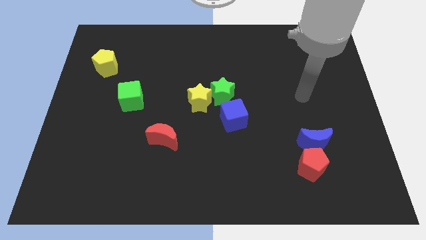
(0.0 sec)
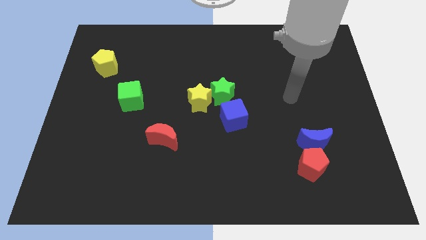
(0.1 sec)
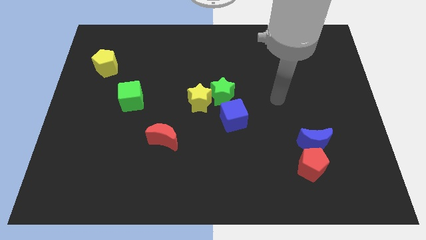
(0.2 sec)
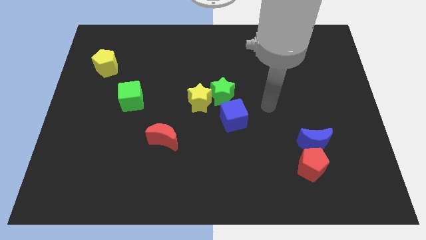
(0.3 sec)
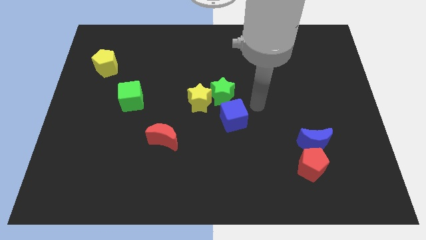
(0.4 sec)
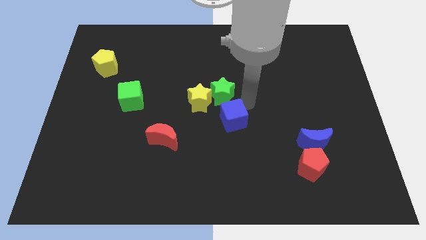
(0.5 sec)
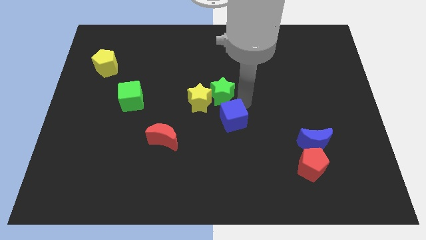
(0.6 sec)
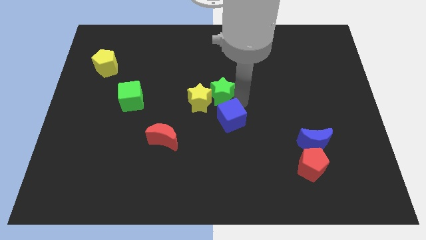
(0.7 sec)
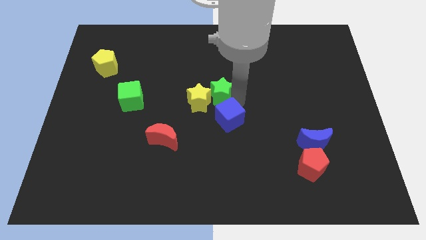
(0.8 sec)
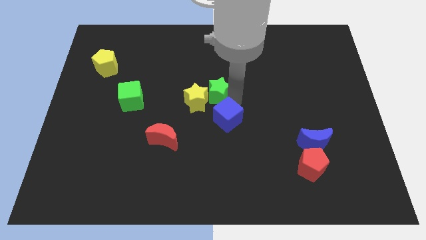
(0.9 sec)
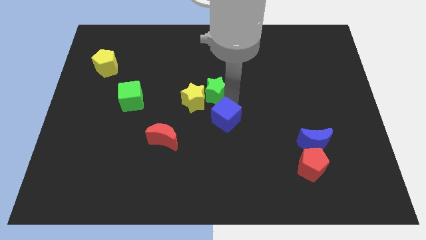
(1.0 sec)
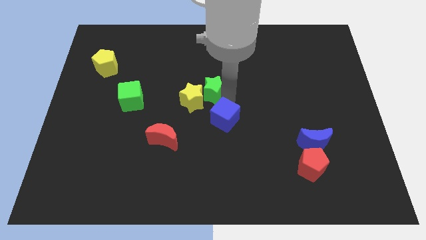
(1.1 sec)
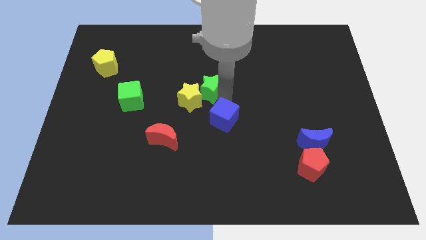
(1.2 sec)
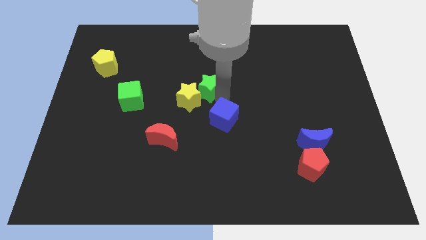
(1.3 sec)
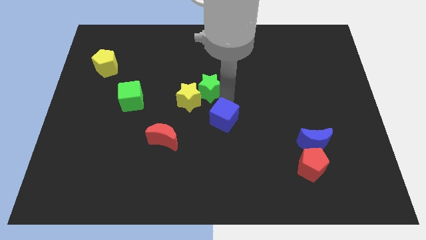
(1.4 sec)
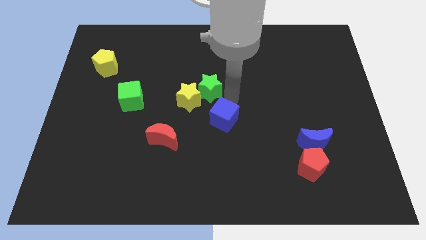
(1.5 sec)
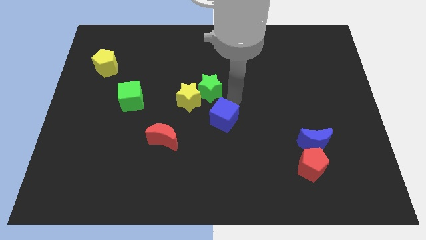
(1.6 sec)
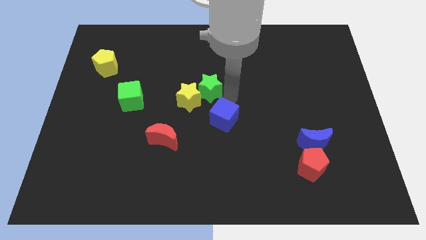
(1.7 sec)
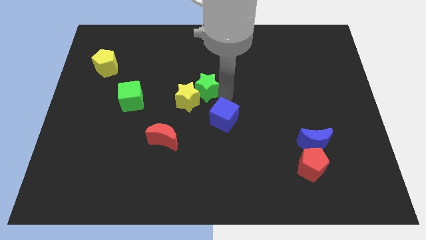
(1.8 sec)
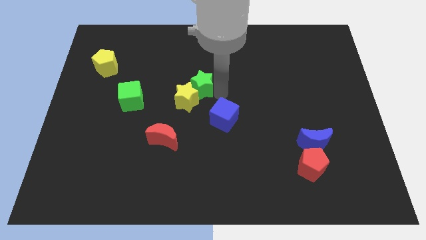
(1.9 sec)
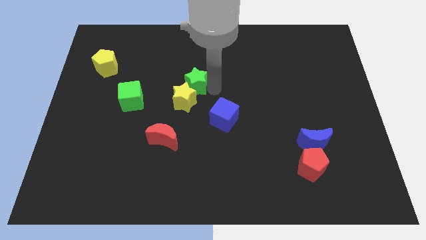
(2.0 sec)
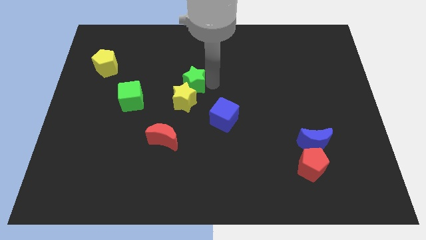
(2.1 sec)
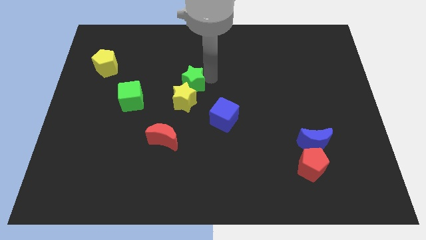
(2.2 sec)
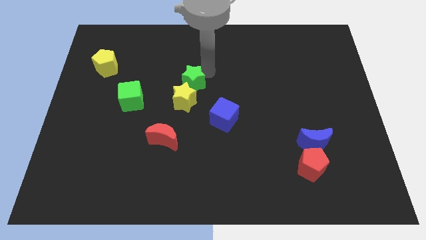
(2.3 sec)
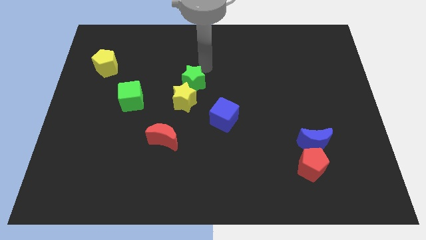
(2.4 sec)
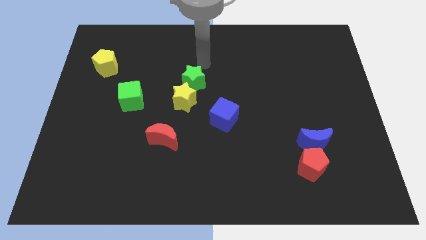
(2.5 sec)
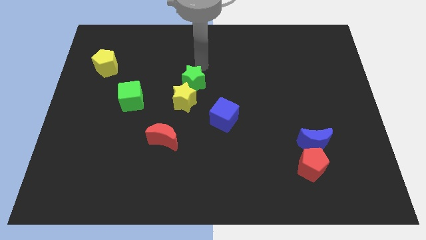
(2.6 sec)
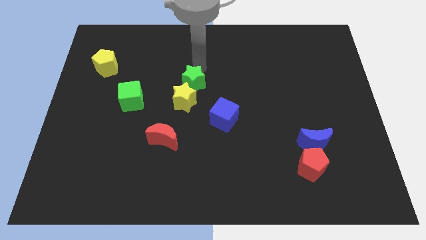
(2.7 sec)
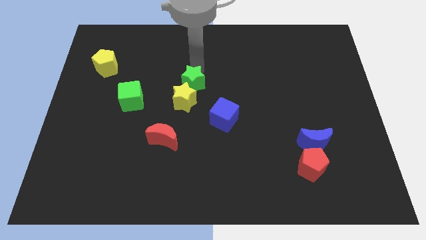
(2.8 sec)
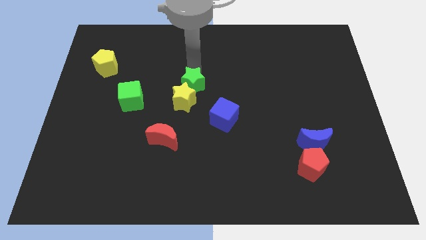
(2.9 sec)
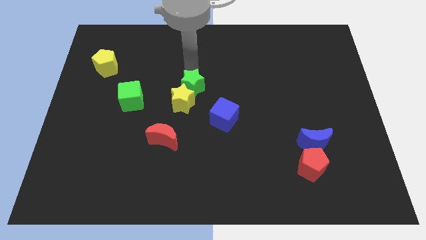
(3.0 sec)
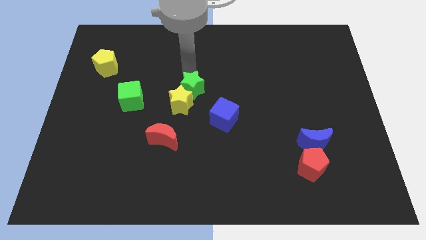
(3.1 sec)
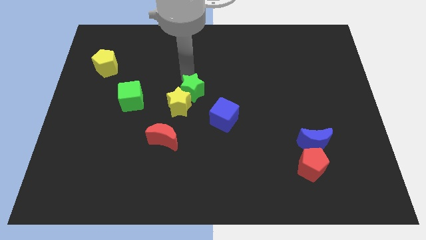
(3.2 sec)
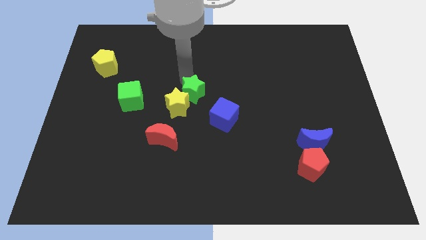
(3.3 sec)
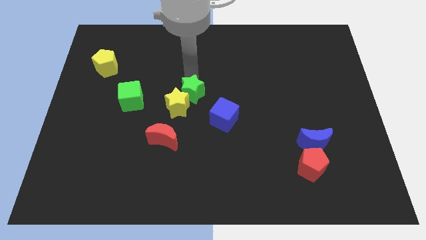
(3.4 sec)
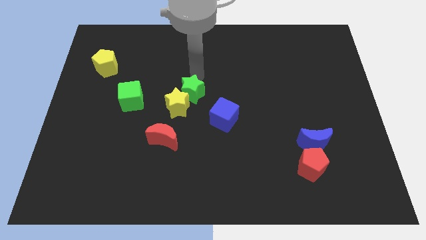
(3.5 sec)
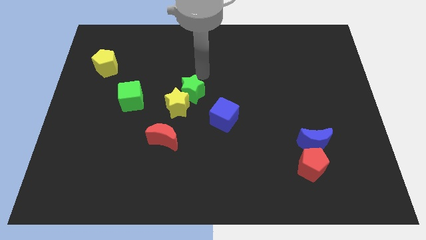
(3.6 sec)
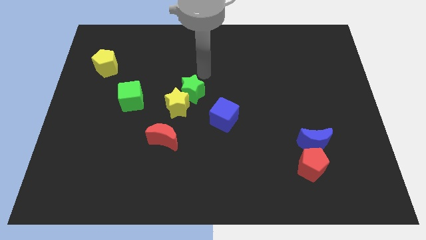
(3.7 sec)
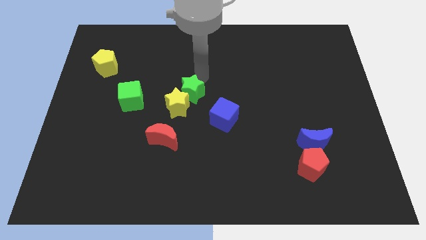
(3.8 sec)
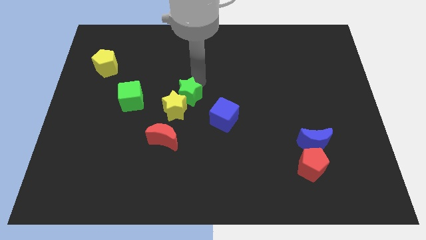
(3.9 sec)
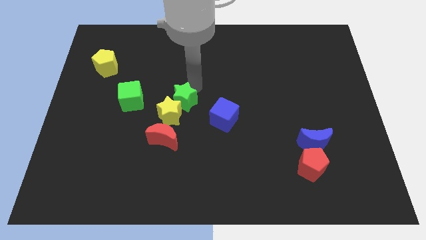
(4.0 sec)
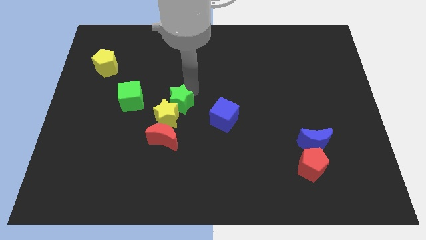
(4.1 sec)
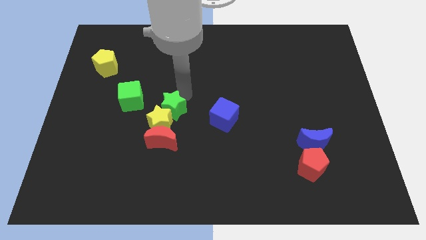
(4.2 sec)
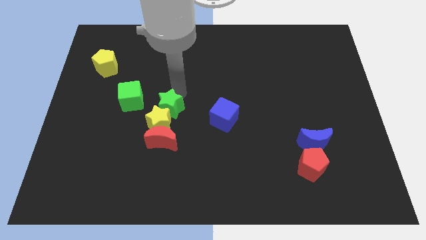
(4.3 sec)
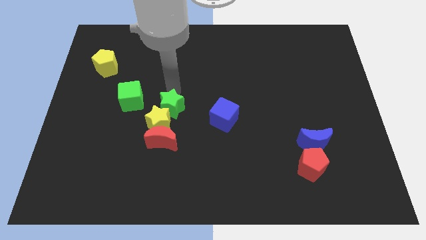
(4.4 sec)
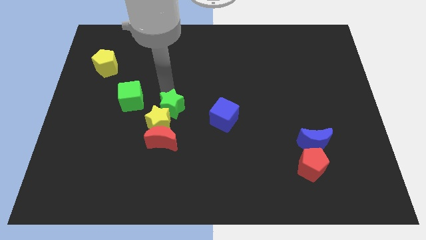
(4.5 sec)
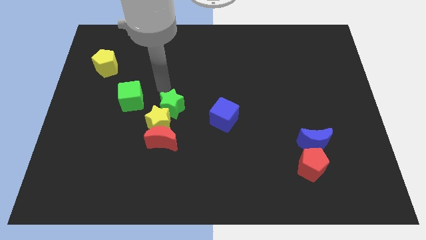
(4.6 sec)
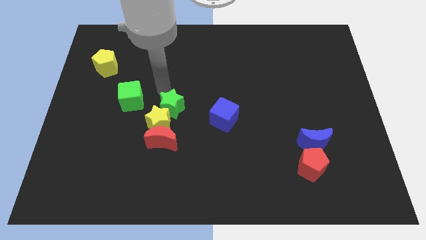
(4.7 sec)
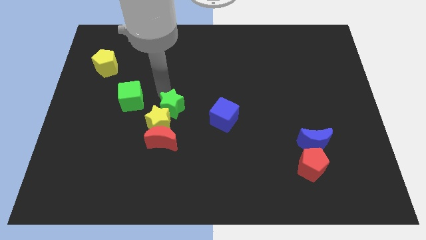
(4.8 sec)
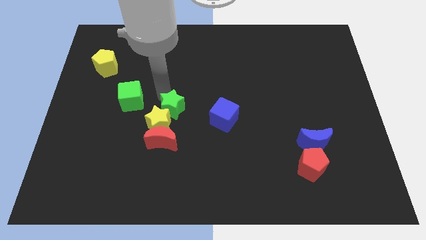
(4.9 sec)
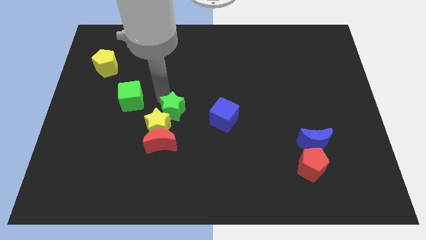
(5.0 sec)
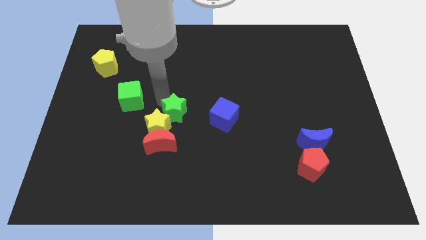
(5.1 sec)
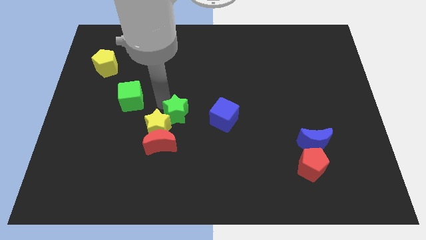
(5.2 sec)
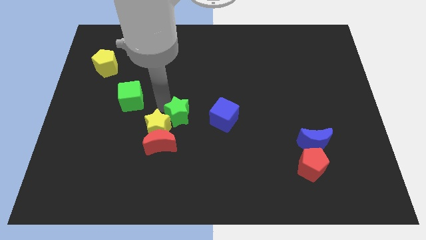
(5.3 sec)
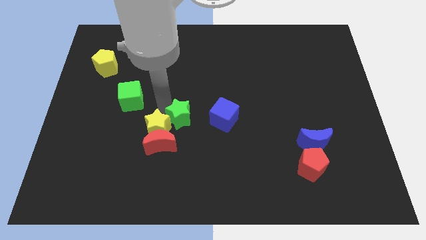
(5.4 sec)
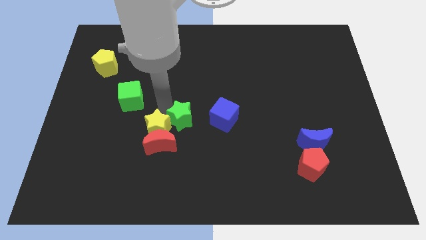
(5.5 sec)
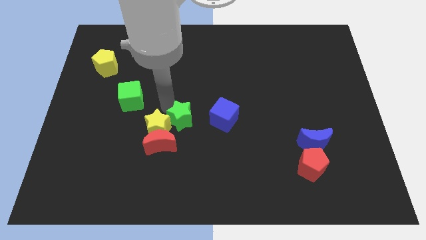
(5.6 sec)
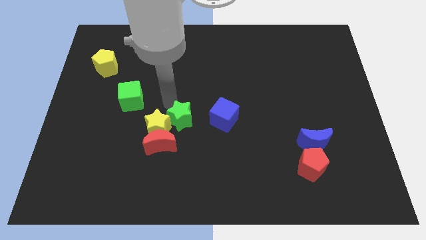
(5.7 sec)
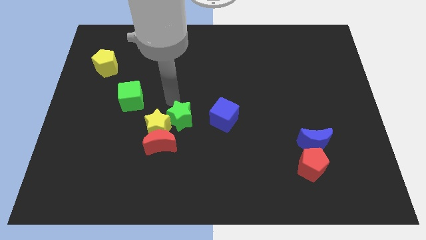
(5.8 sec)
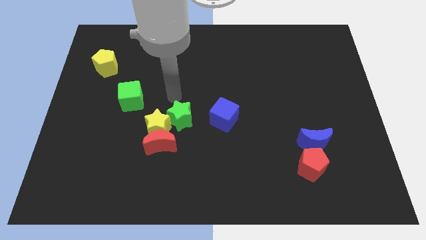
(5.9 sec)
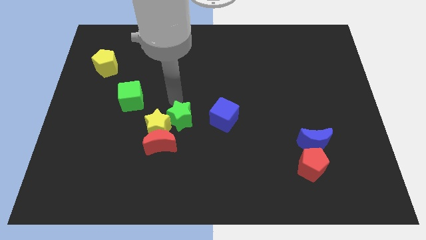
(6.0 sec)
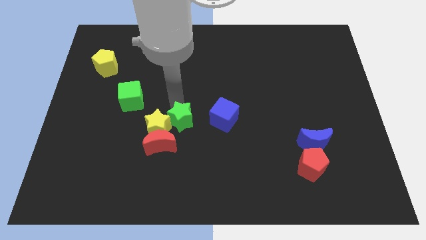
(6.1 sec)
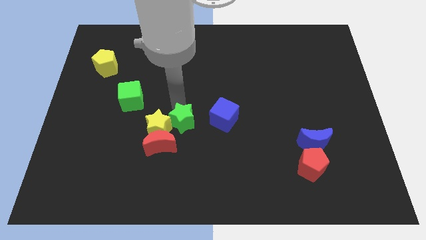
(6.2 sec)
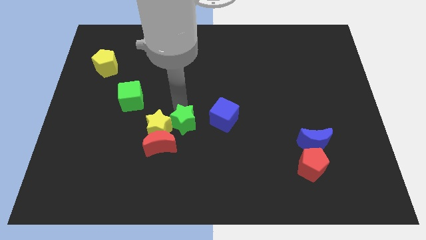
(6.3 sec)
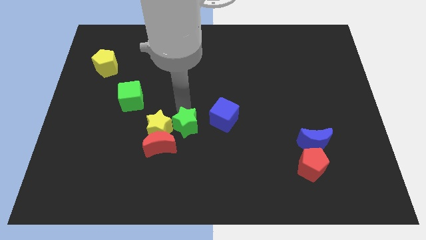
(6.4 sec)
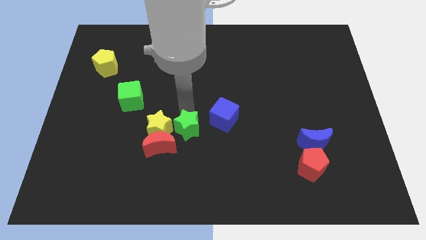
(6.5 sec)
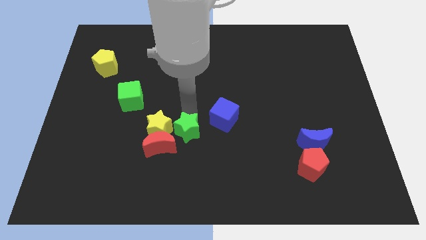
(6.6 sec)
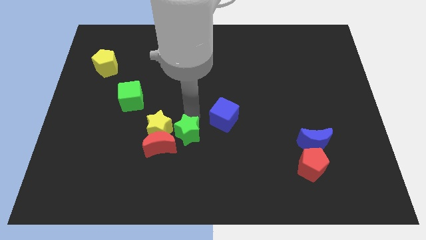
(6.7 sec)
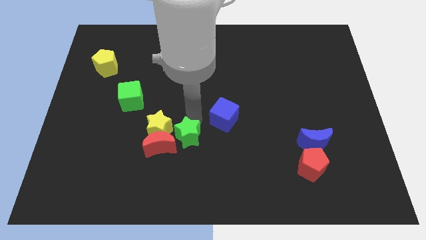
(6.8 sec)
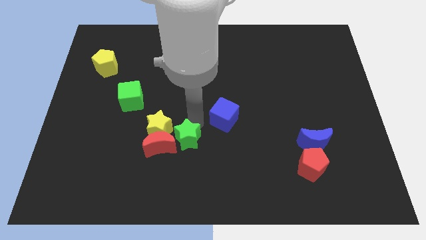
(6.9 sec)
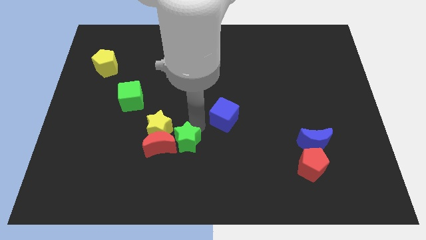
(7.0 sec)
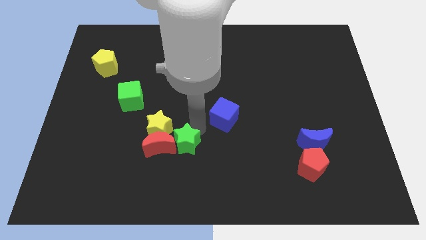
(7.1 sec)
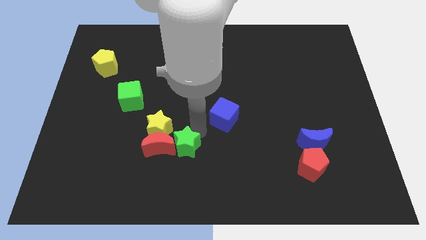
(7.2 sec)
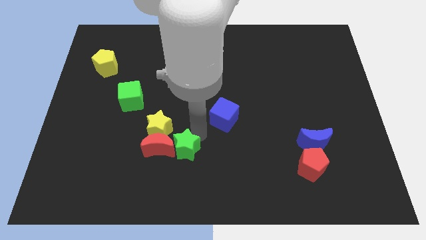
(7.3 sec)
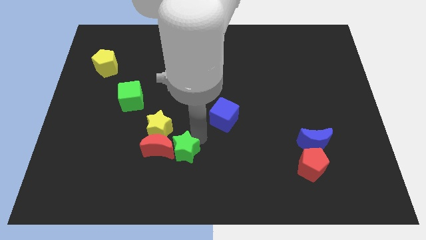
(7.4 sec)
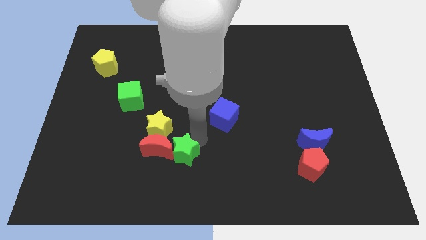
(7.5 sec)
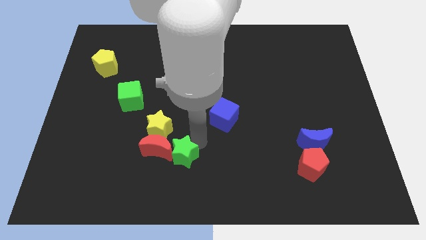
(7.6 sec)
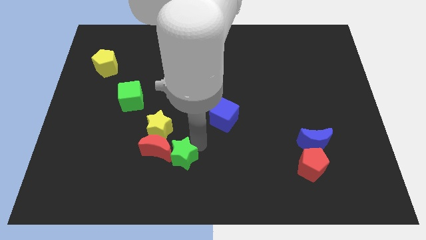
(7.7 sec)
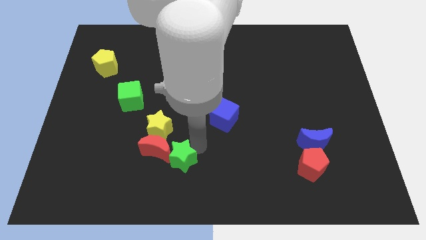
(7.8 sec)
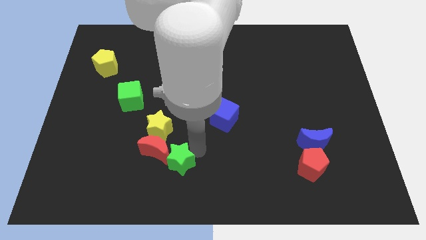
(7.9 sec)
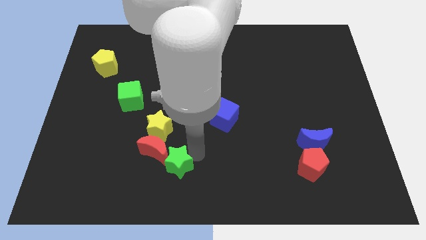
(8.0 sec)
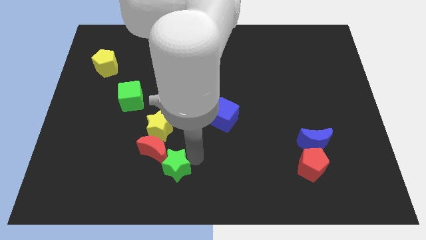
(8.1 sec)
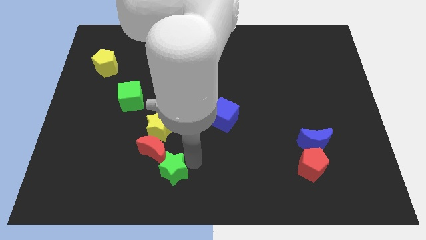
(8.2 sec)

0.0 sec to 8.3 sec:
put the green star below the red moon
